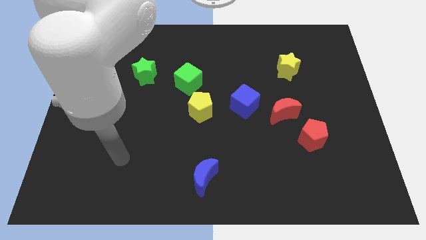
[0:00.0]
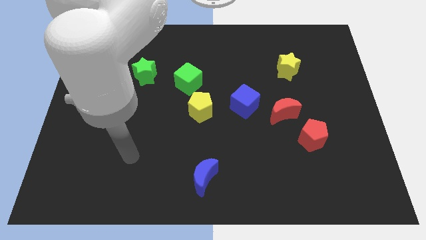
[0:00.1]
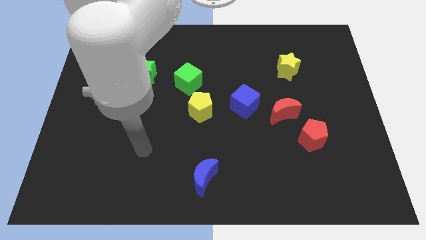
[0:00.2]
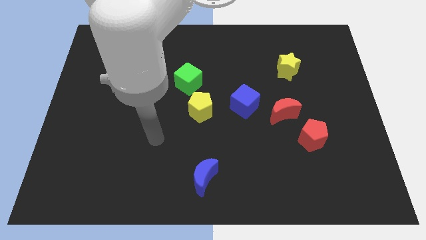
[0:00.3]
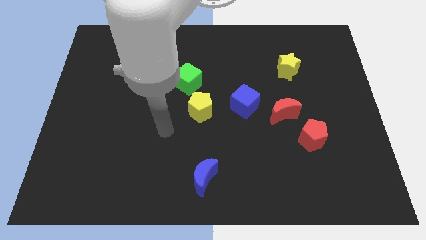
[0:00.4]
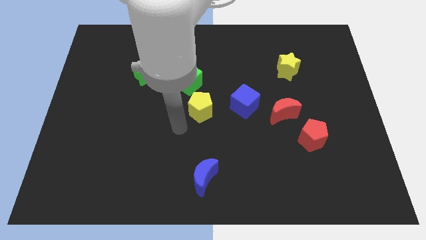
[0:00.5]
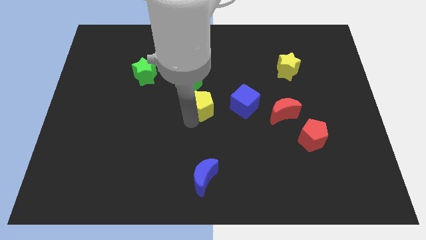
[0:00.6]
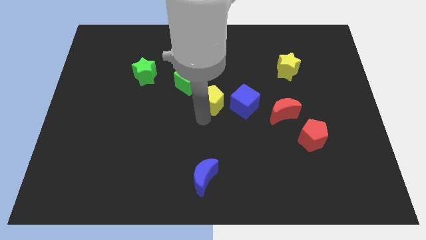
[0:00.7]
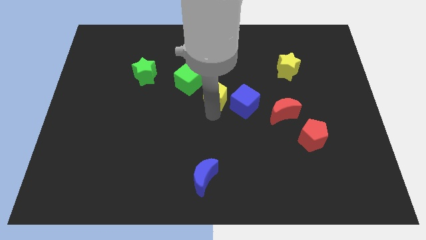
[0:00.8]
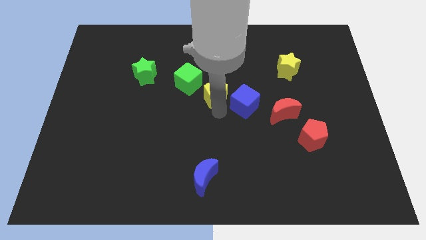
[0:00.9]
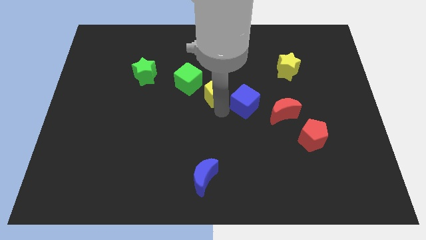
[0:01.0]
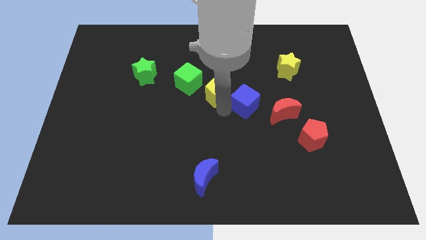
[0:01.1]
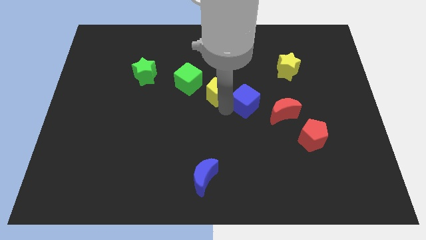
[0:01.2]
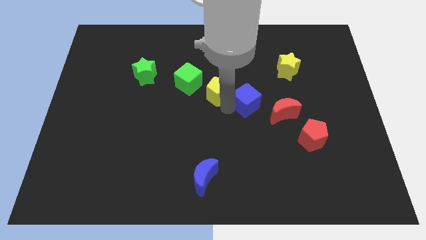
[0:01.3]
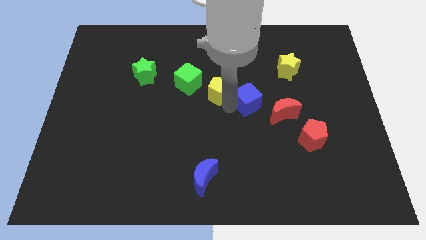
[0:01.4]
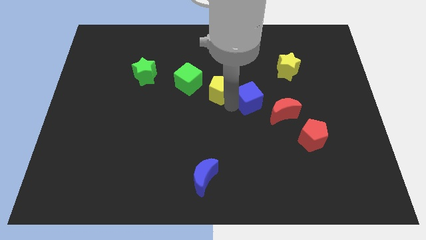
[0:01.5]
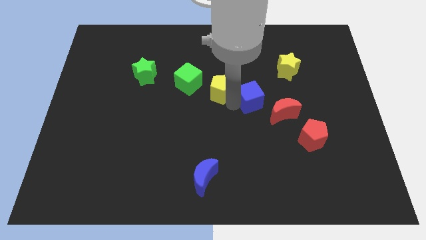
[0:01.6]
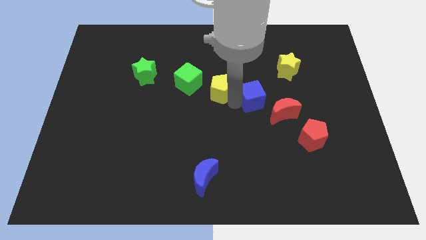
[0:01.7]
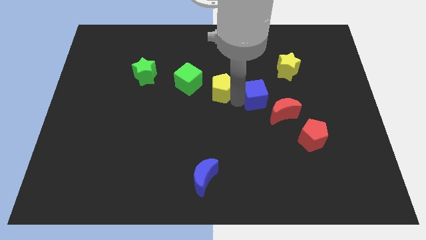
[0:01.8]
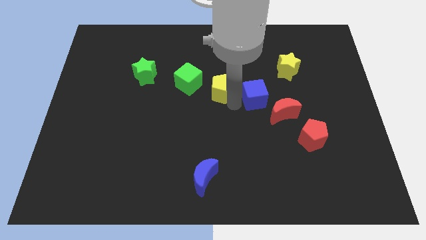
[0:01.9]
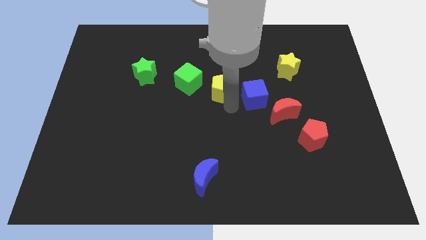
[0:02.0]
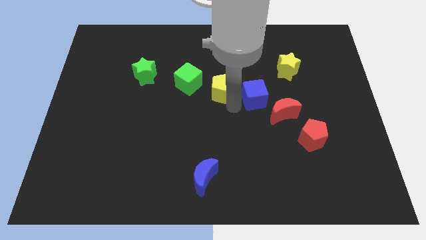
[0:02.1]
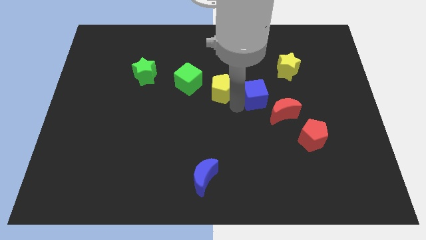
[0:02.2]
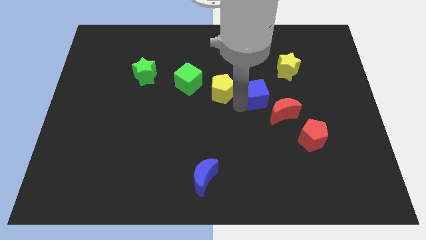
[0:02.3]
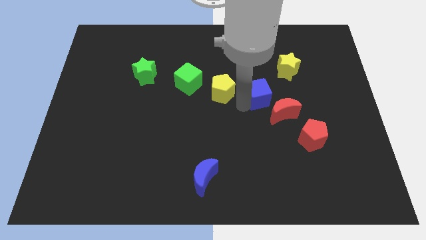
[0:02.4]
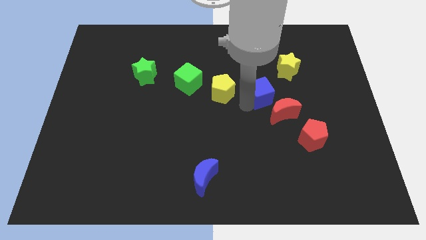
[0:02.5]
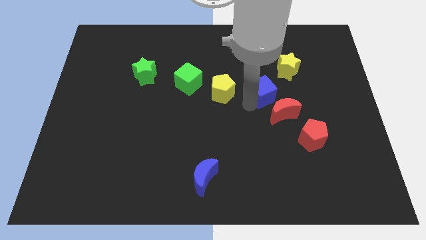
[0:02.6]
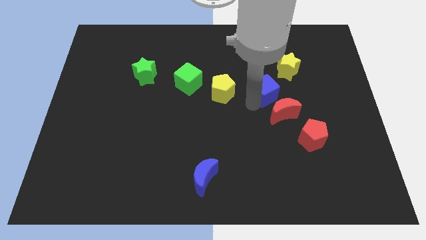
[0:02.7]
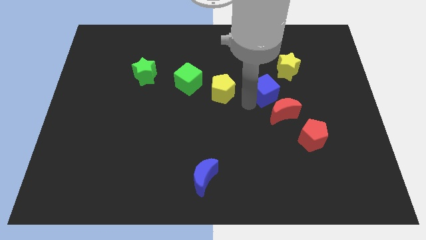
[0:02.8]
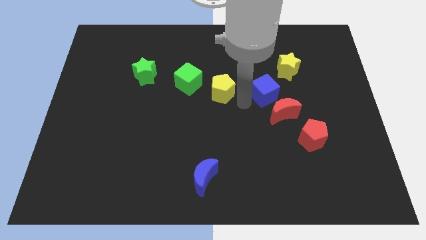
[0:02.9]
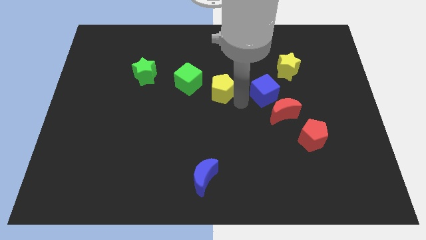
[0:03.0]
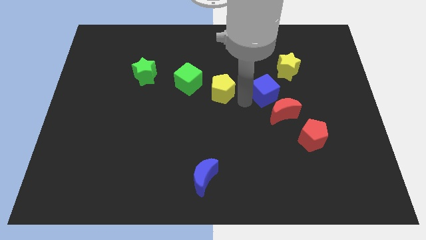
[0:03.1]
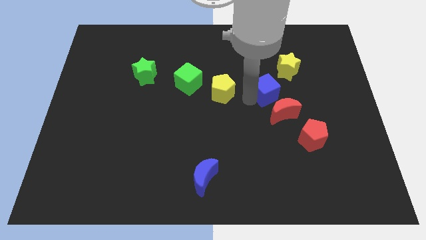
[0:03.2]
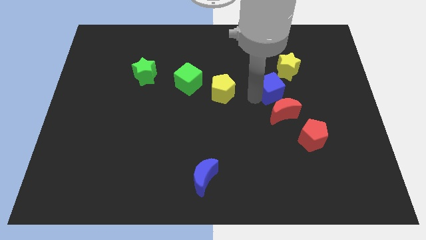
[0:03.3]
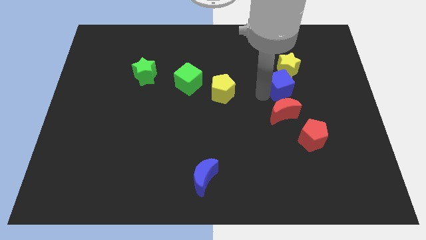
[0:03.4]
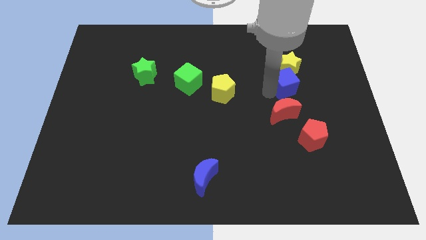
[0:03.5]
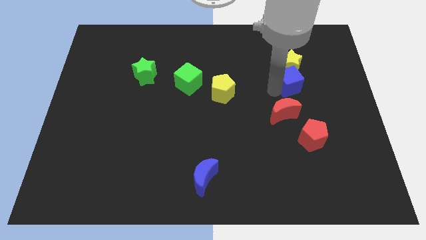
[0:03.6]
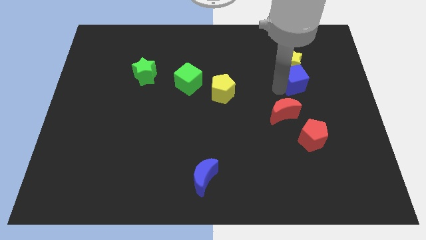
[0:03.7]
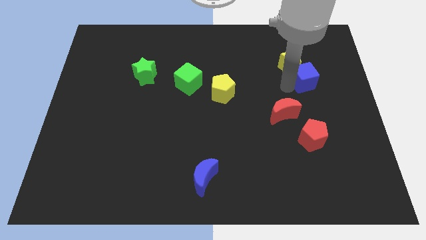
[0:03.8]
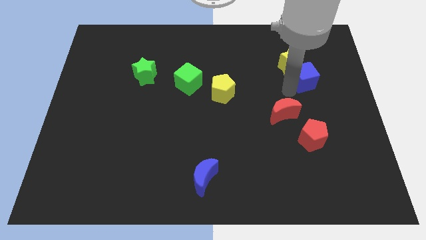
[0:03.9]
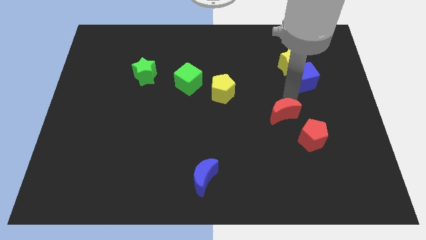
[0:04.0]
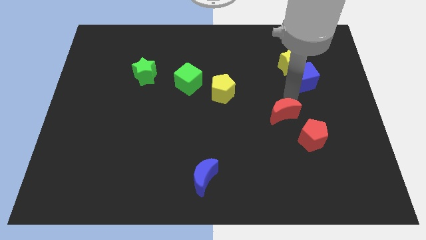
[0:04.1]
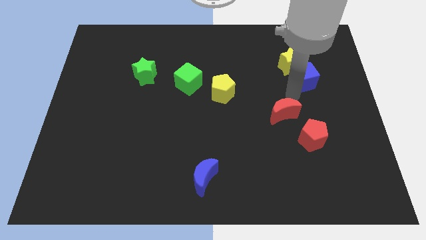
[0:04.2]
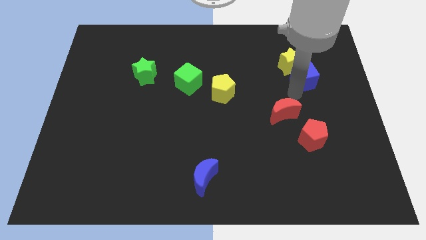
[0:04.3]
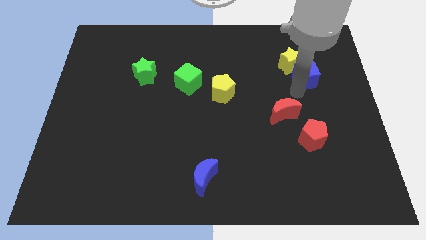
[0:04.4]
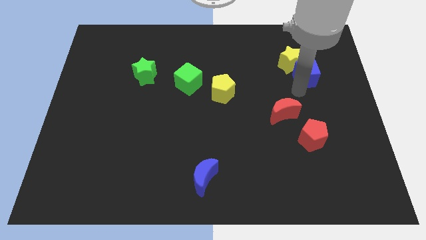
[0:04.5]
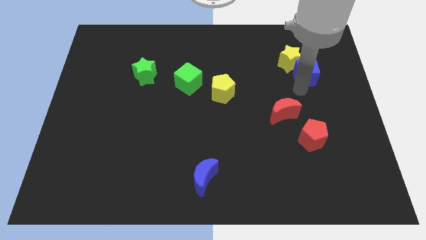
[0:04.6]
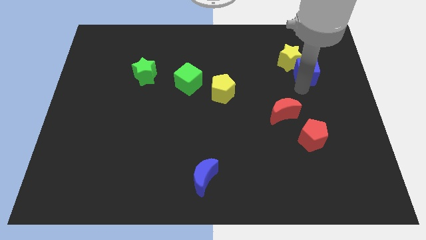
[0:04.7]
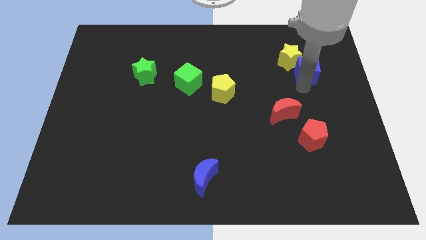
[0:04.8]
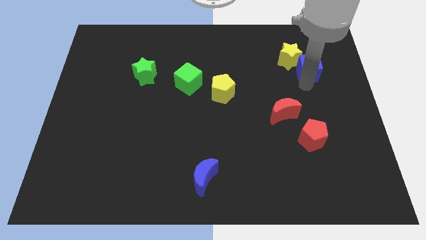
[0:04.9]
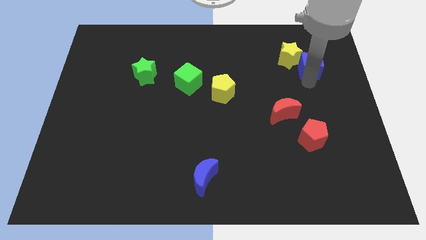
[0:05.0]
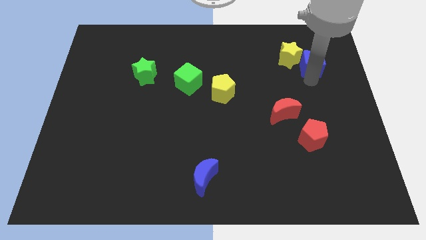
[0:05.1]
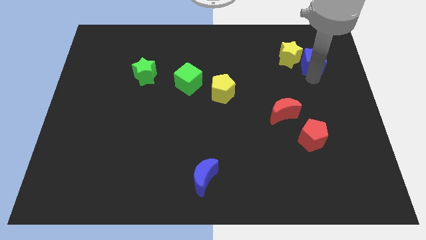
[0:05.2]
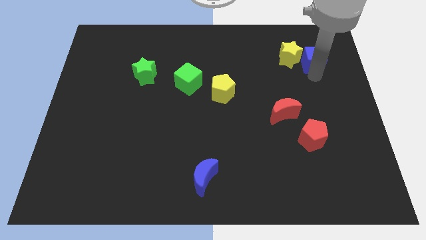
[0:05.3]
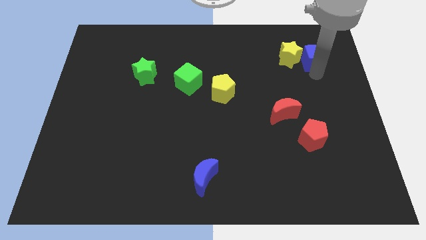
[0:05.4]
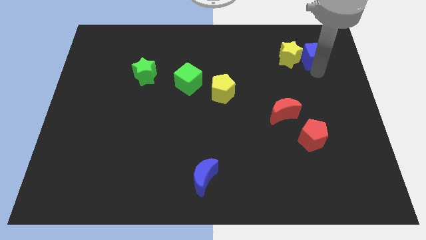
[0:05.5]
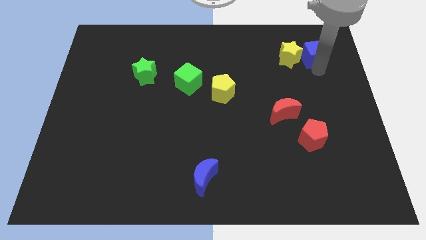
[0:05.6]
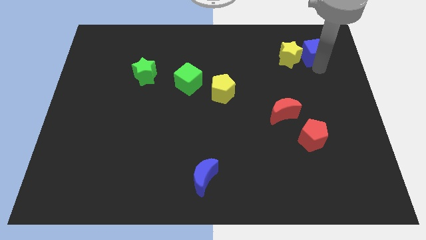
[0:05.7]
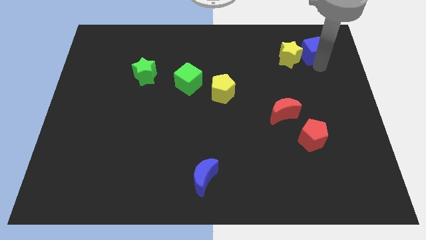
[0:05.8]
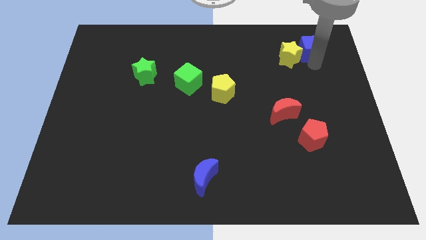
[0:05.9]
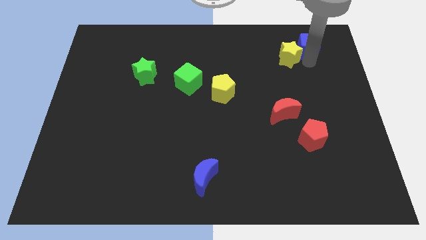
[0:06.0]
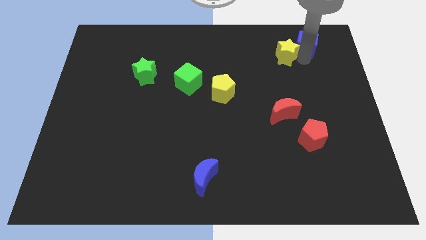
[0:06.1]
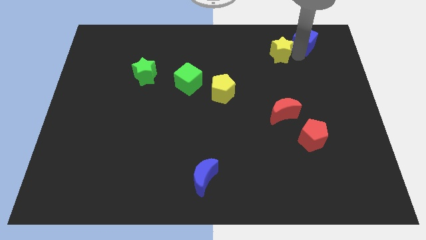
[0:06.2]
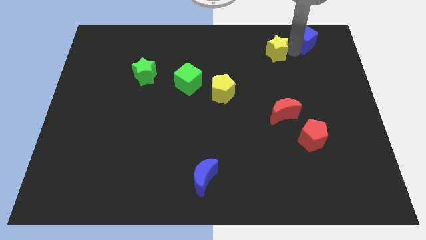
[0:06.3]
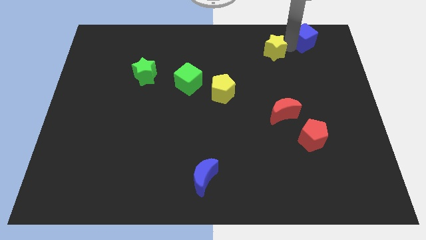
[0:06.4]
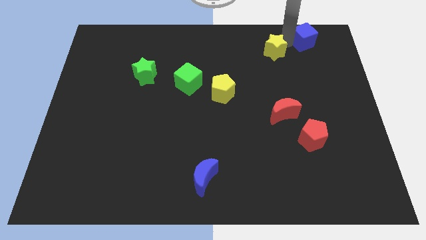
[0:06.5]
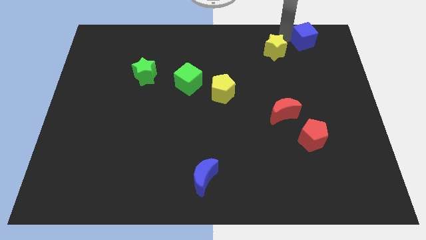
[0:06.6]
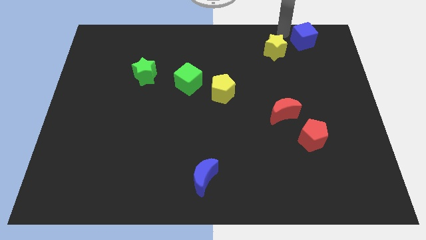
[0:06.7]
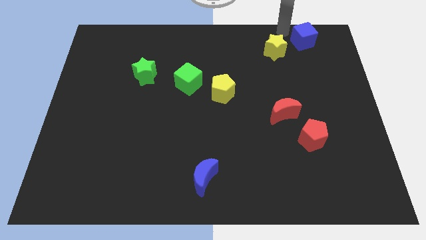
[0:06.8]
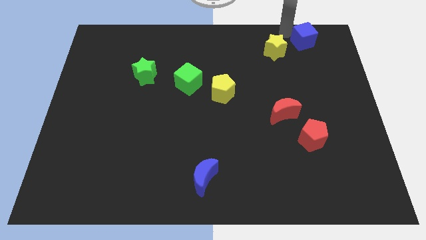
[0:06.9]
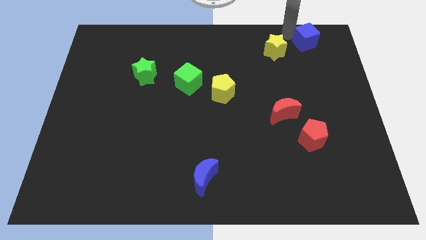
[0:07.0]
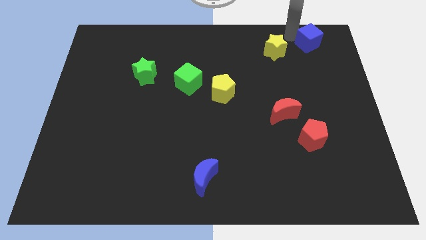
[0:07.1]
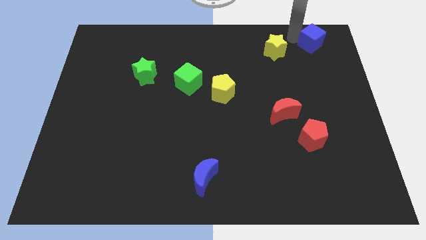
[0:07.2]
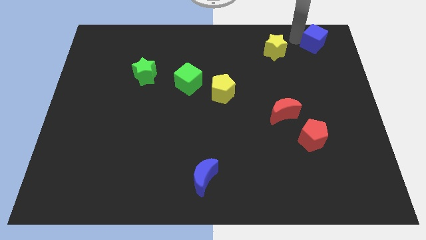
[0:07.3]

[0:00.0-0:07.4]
move the blue cube to the top right of the board
